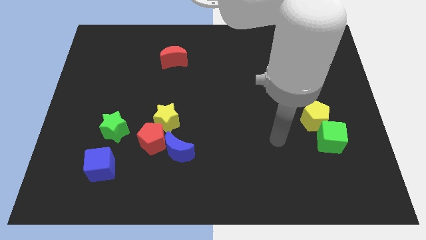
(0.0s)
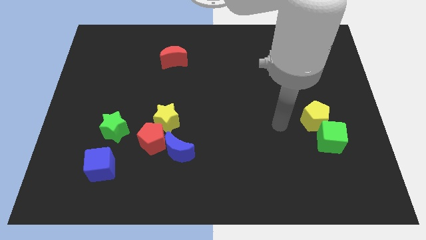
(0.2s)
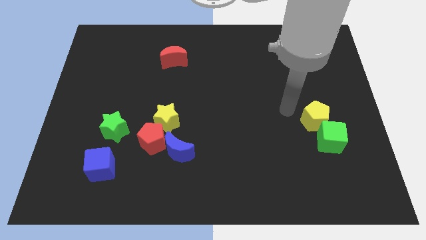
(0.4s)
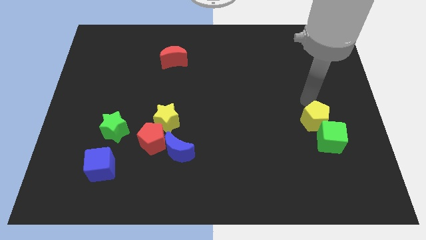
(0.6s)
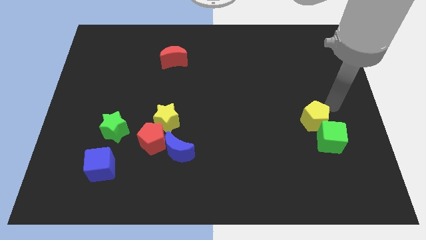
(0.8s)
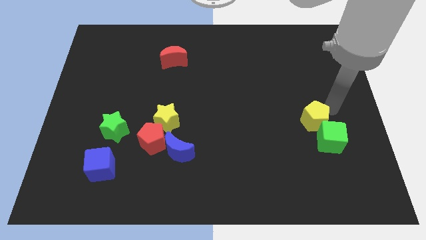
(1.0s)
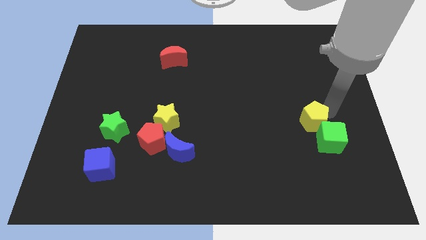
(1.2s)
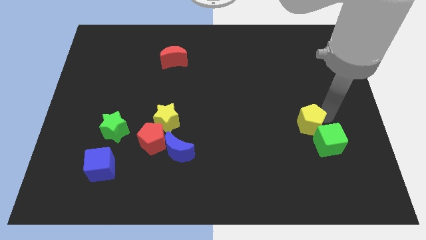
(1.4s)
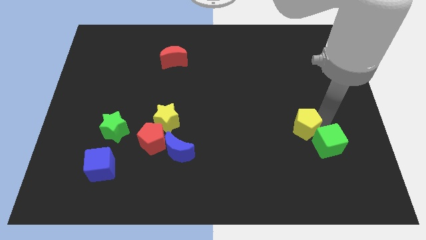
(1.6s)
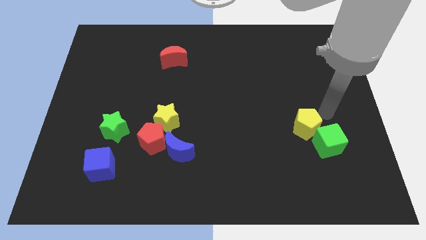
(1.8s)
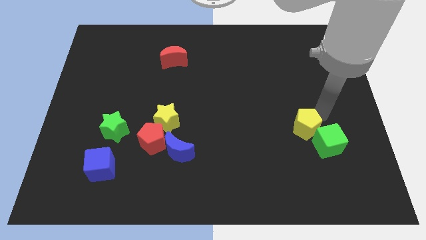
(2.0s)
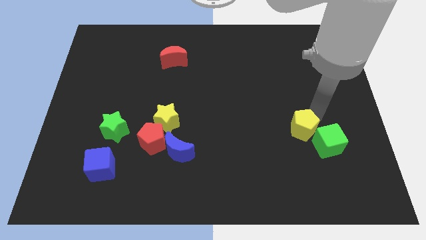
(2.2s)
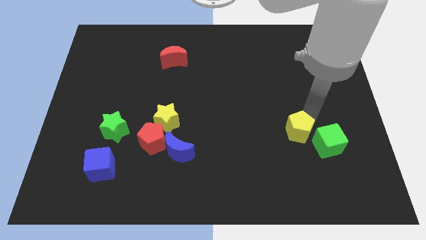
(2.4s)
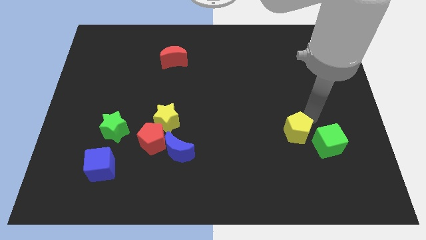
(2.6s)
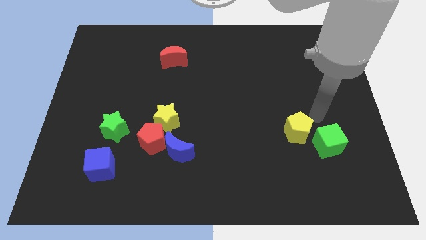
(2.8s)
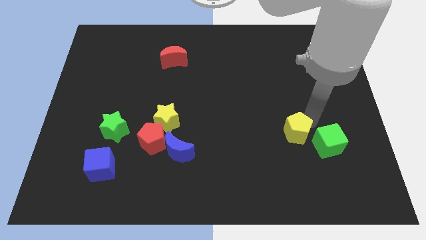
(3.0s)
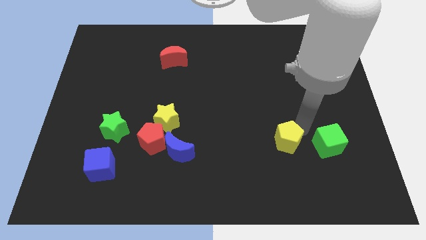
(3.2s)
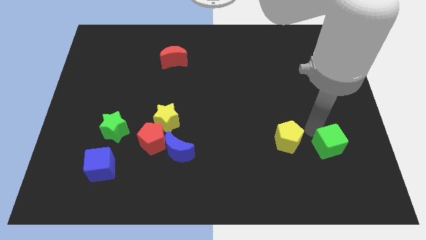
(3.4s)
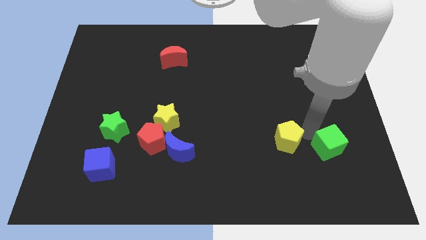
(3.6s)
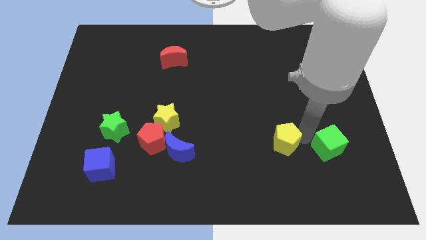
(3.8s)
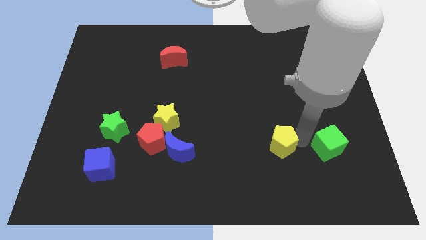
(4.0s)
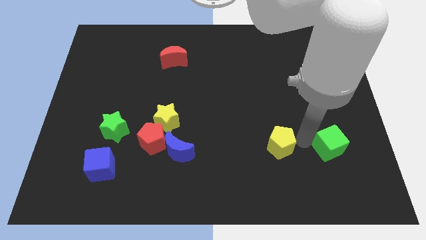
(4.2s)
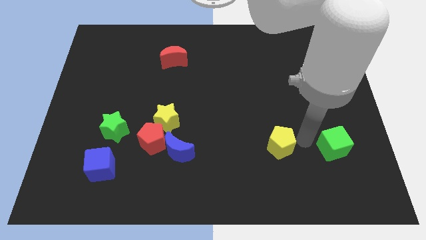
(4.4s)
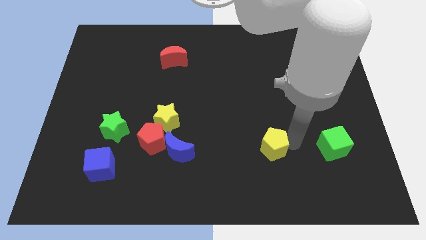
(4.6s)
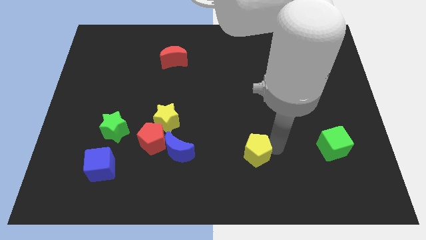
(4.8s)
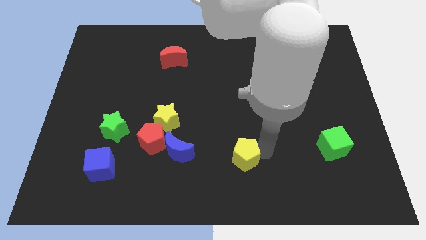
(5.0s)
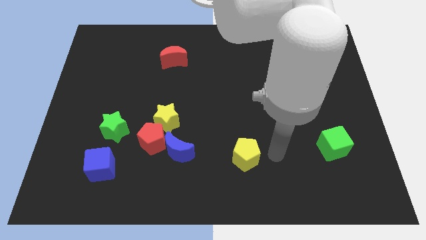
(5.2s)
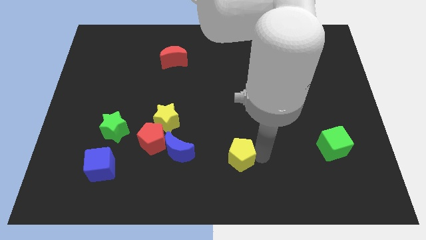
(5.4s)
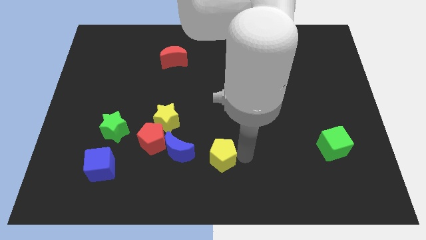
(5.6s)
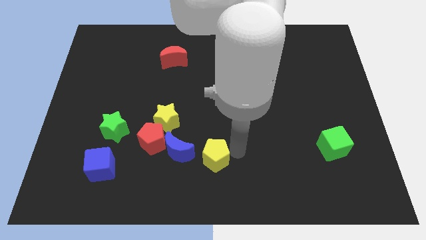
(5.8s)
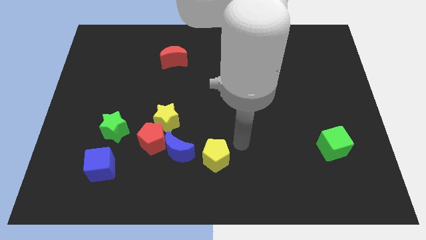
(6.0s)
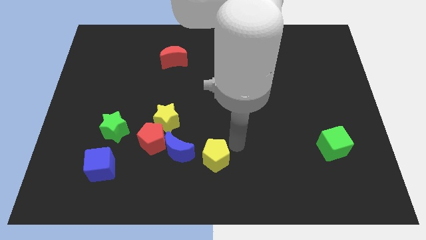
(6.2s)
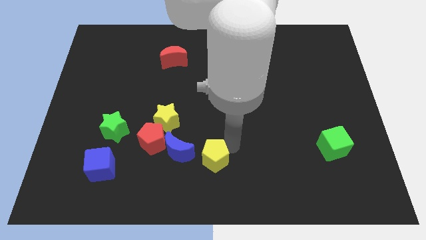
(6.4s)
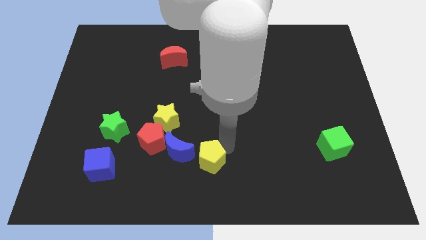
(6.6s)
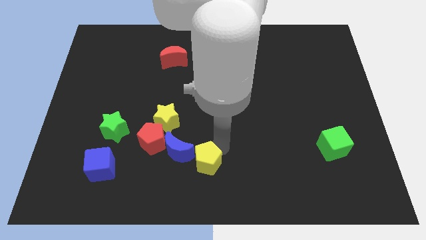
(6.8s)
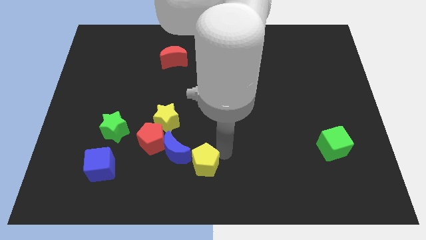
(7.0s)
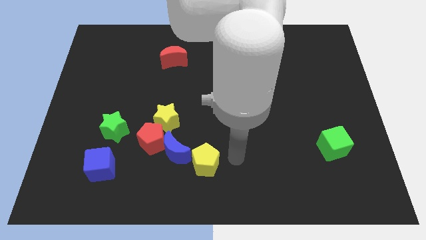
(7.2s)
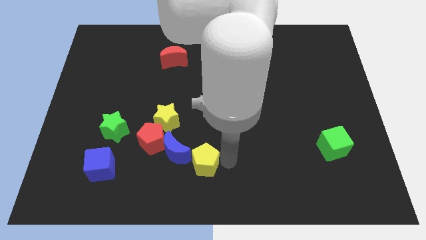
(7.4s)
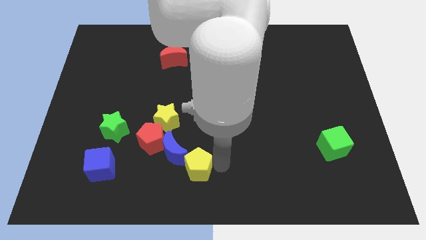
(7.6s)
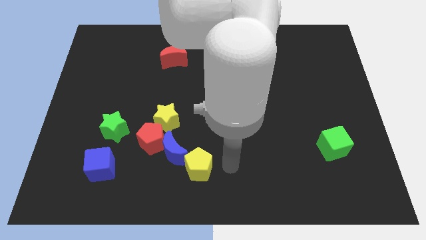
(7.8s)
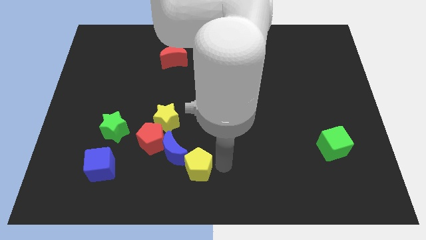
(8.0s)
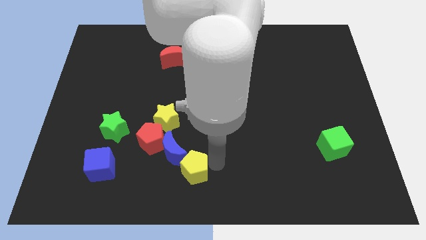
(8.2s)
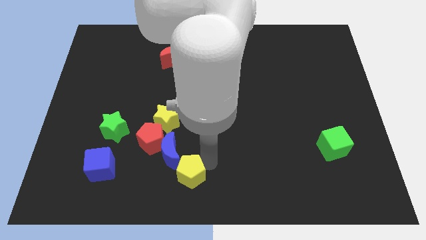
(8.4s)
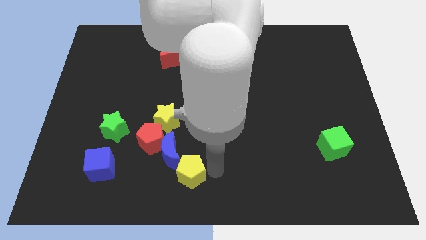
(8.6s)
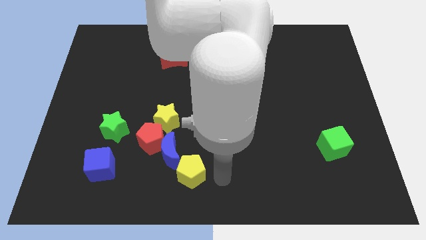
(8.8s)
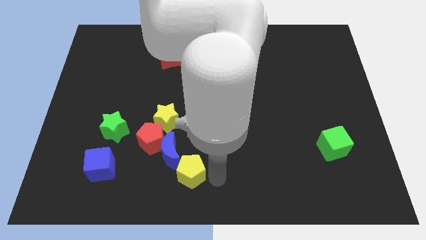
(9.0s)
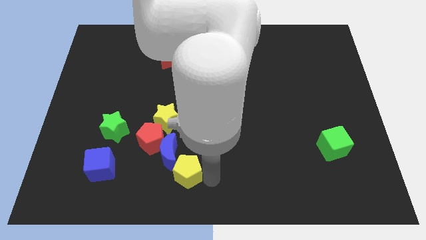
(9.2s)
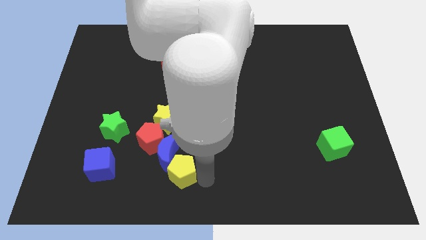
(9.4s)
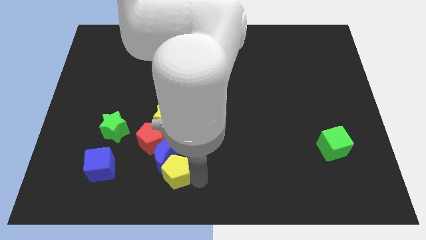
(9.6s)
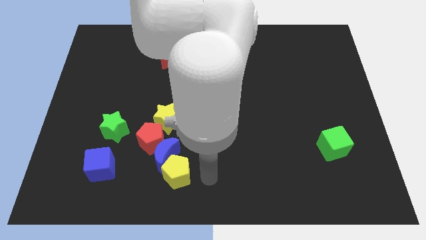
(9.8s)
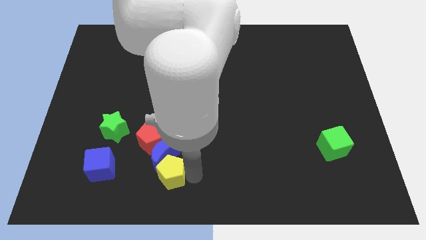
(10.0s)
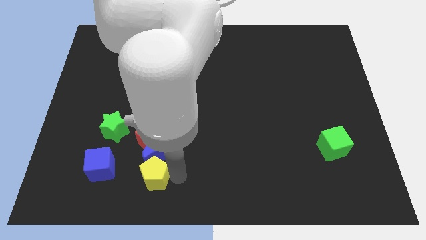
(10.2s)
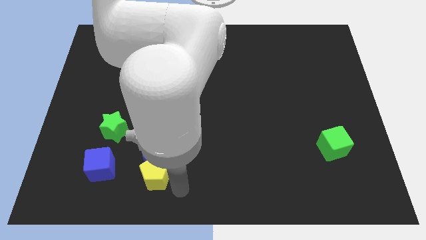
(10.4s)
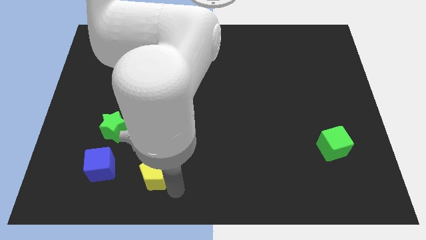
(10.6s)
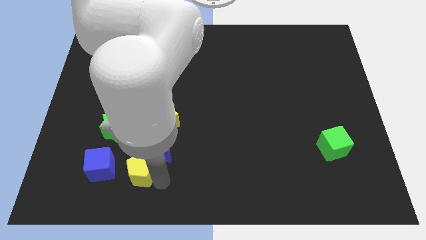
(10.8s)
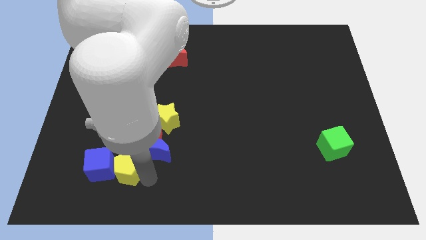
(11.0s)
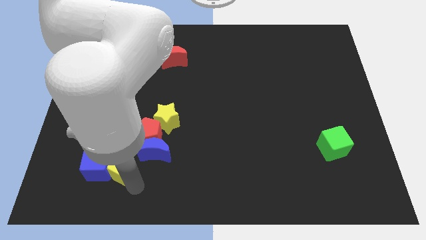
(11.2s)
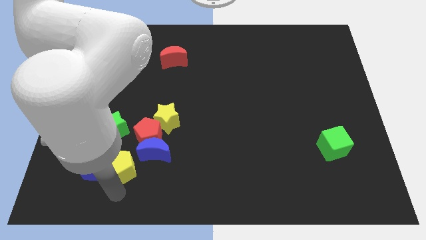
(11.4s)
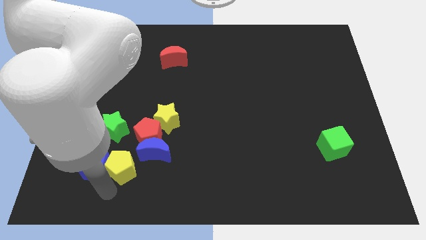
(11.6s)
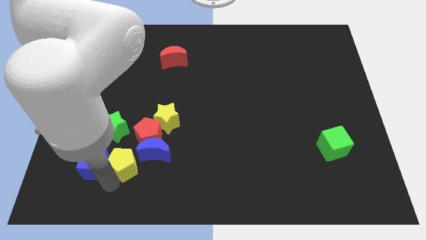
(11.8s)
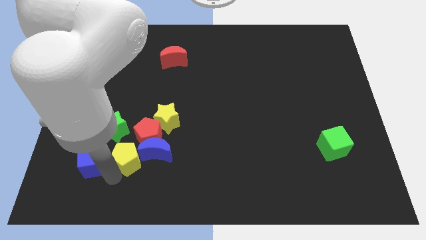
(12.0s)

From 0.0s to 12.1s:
slide the yellow pentagon to the bottom left of the yellow star

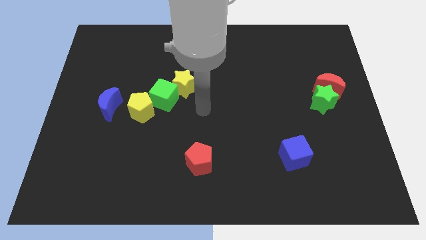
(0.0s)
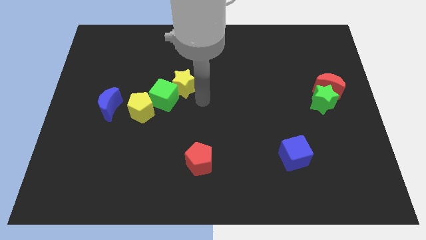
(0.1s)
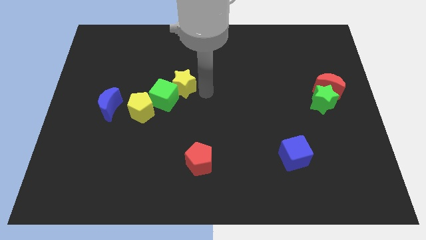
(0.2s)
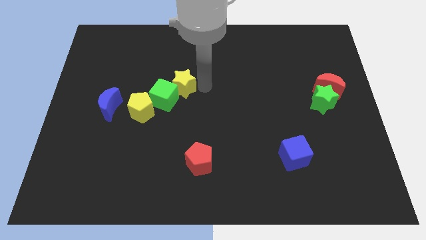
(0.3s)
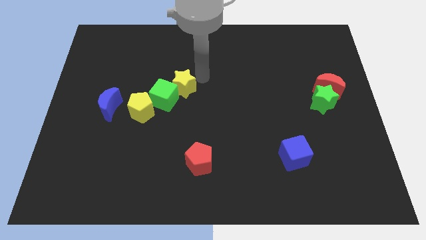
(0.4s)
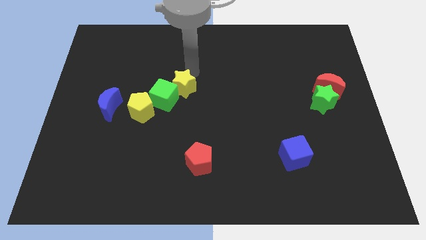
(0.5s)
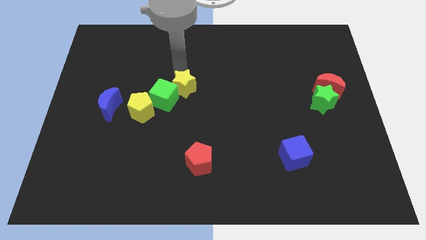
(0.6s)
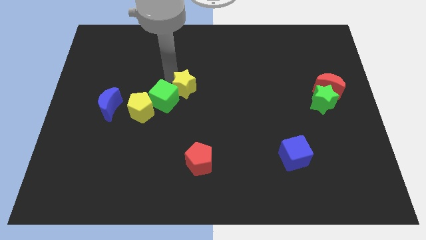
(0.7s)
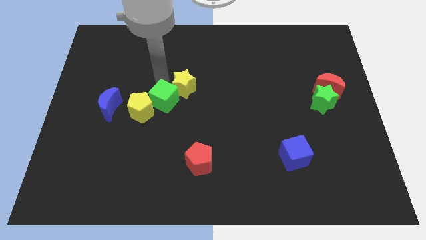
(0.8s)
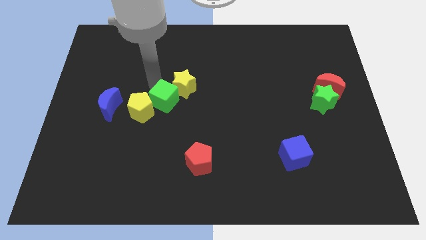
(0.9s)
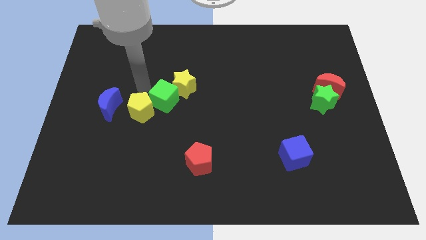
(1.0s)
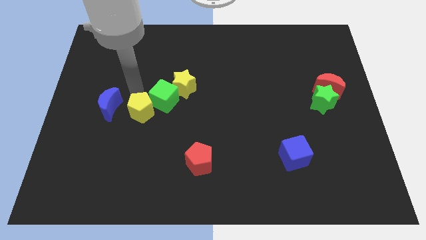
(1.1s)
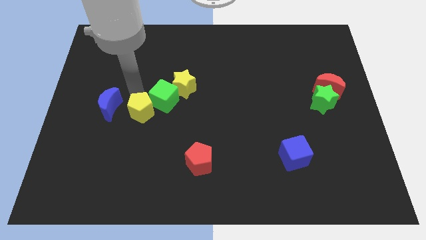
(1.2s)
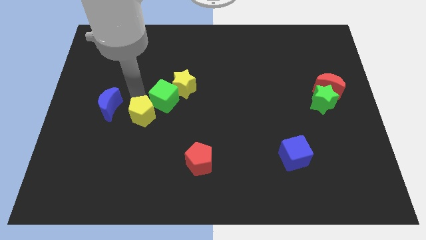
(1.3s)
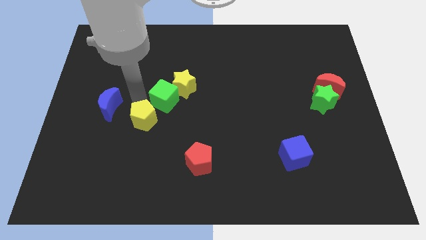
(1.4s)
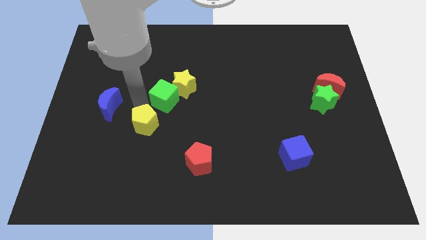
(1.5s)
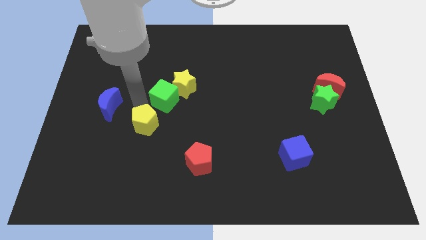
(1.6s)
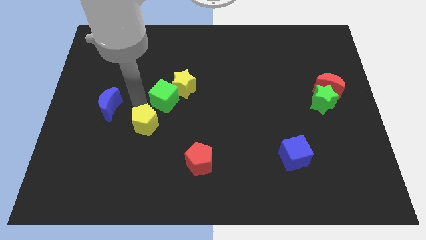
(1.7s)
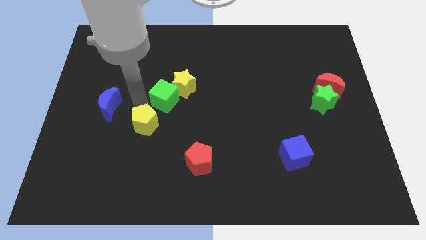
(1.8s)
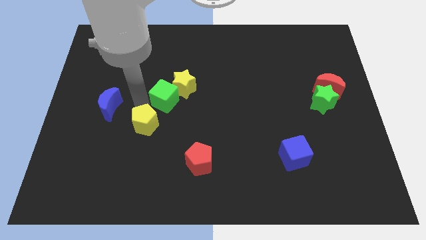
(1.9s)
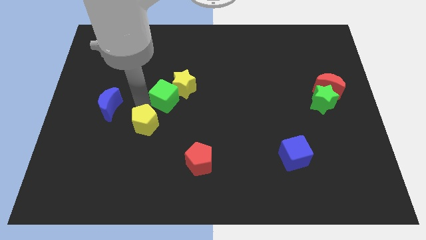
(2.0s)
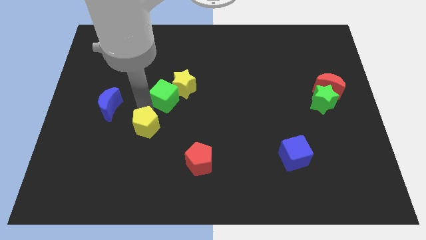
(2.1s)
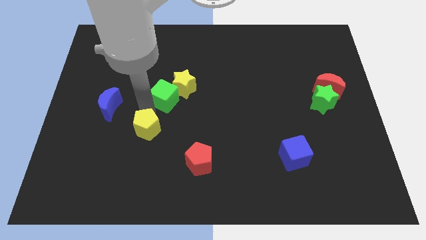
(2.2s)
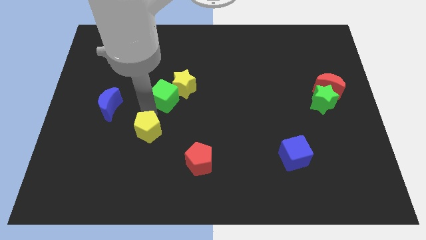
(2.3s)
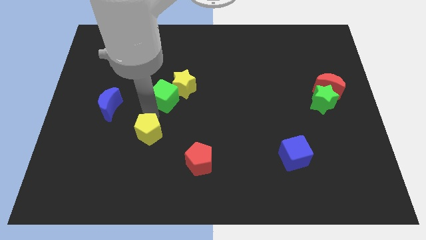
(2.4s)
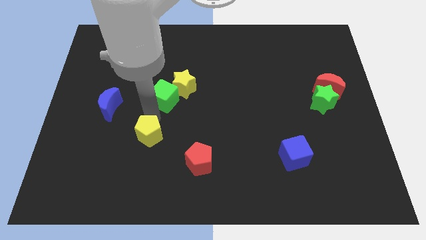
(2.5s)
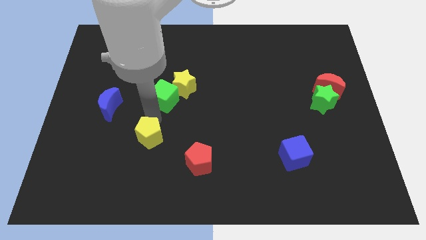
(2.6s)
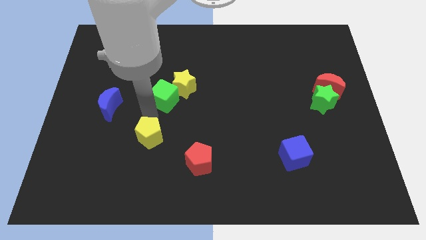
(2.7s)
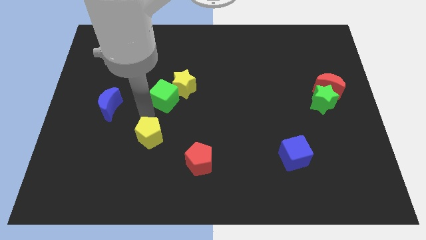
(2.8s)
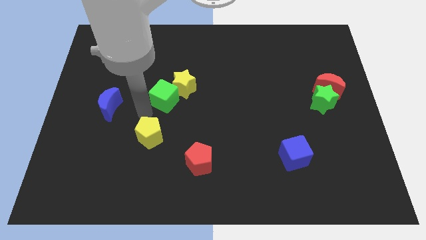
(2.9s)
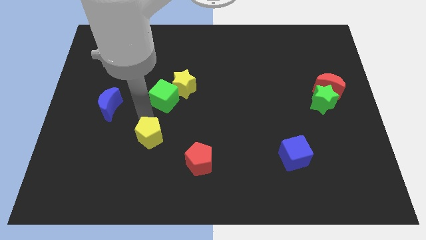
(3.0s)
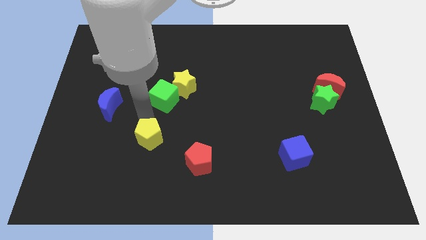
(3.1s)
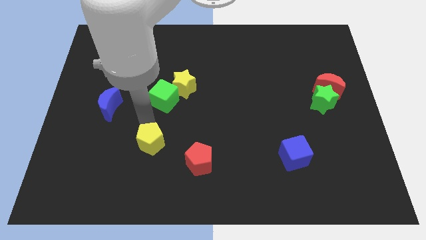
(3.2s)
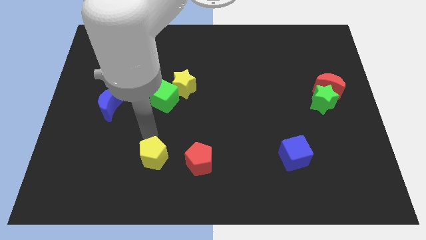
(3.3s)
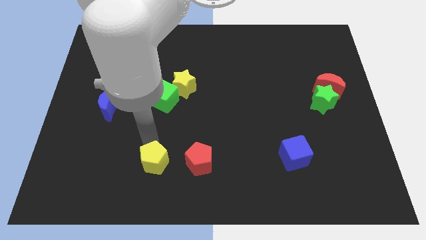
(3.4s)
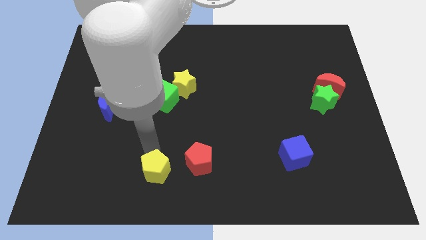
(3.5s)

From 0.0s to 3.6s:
push the yellow pentagon diagonally down and to the left of the red pentagon
